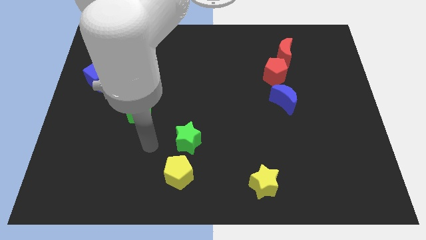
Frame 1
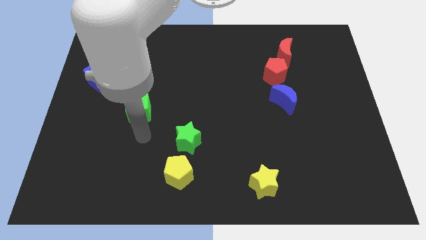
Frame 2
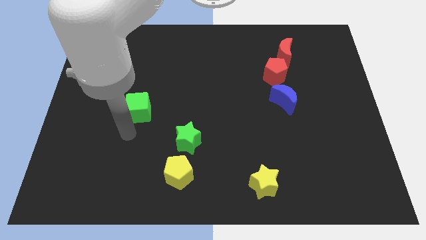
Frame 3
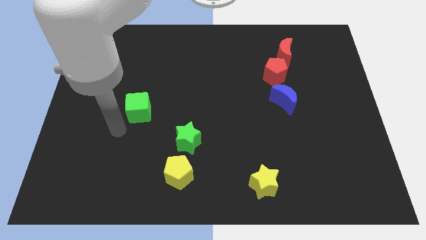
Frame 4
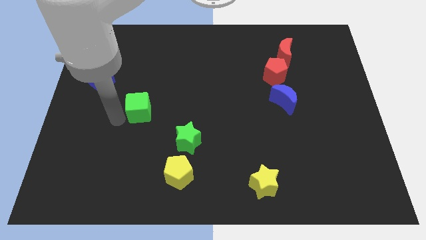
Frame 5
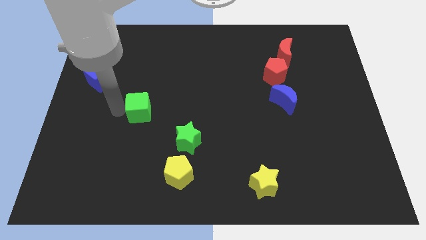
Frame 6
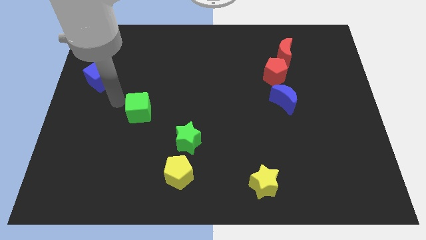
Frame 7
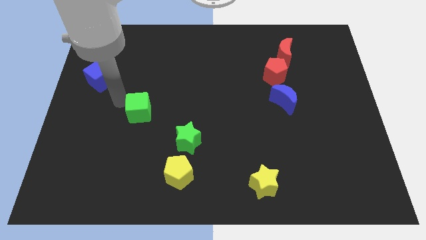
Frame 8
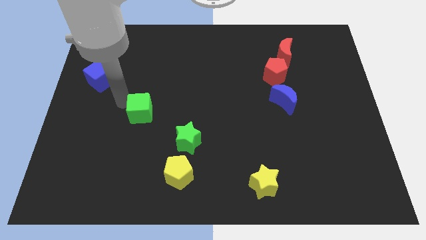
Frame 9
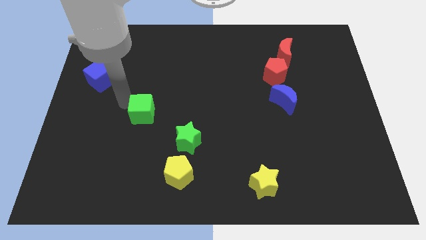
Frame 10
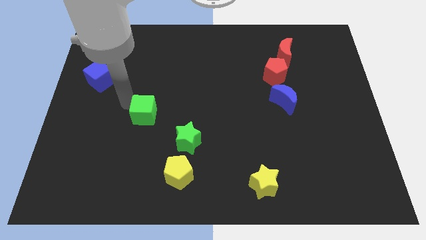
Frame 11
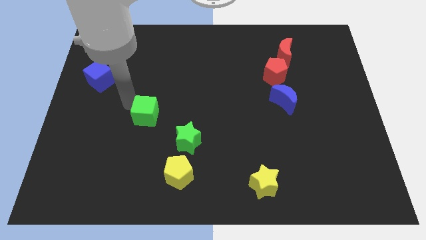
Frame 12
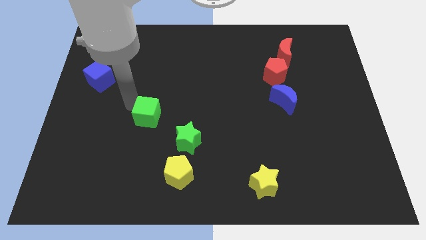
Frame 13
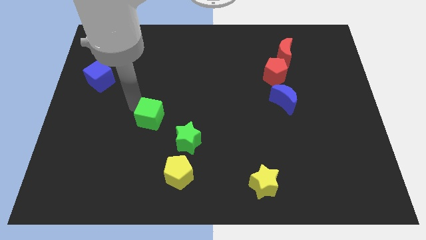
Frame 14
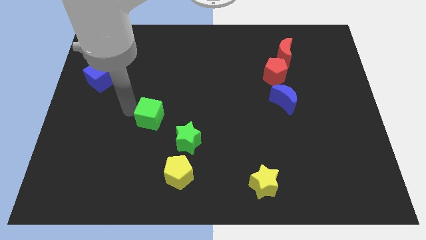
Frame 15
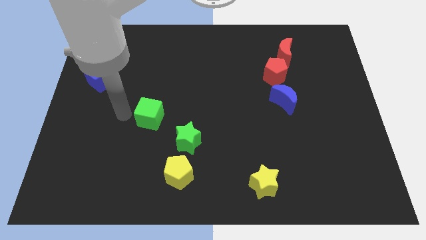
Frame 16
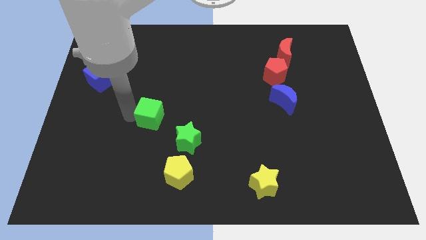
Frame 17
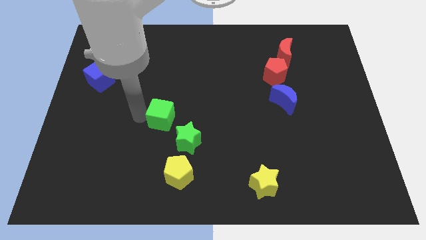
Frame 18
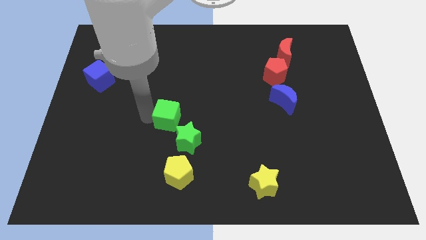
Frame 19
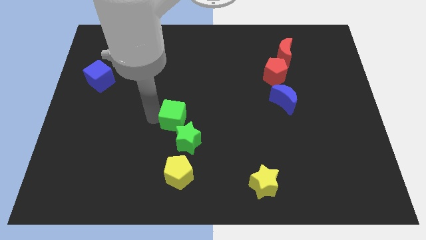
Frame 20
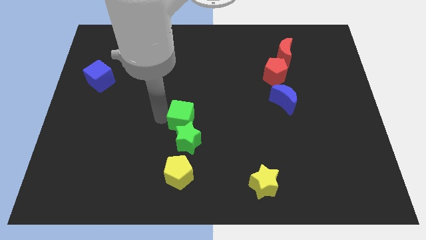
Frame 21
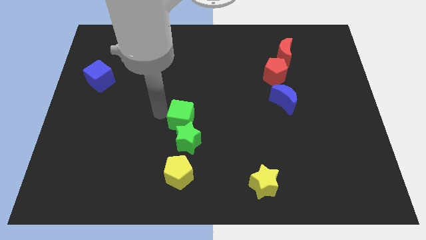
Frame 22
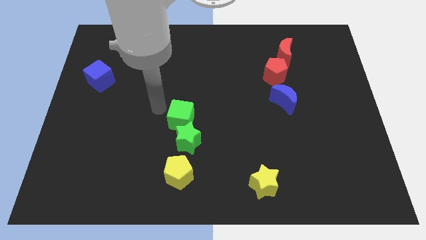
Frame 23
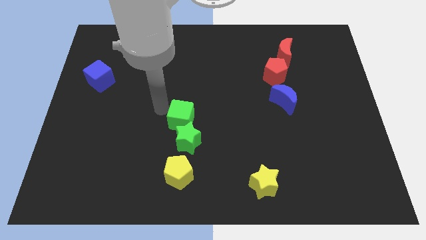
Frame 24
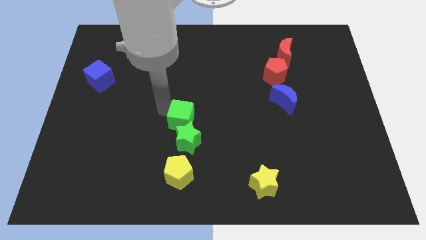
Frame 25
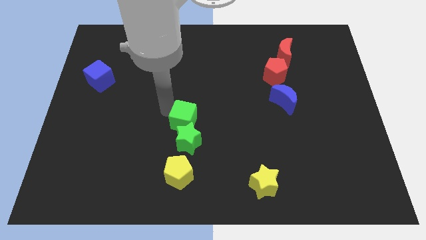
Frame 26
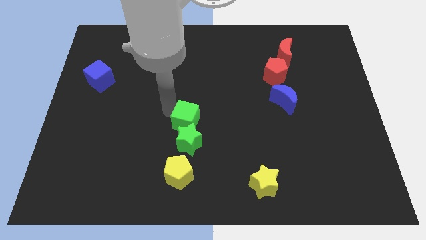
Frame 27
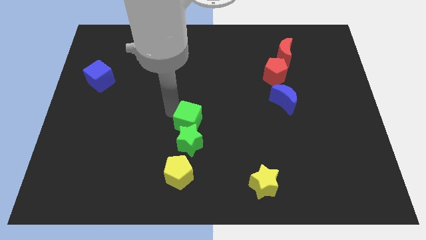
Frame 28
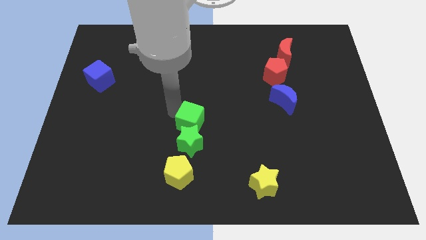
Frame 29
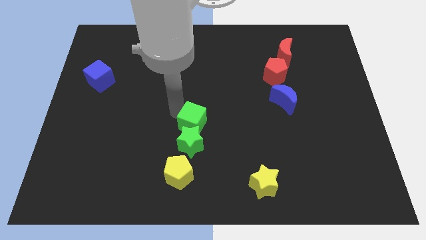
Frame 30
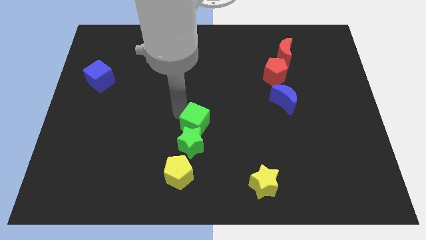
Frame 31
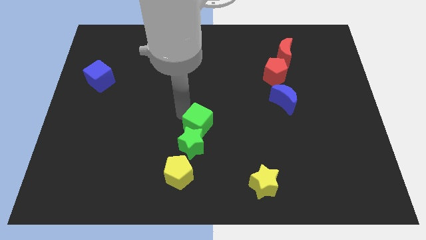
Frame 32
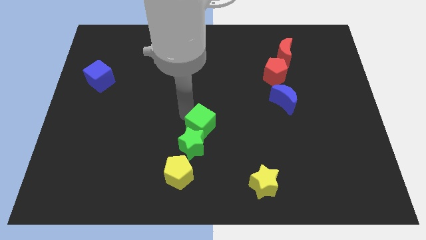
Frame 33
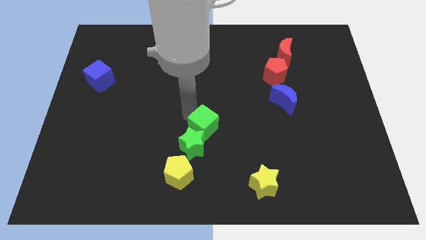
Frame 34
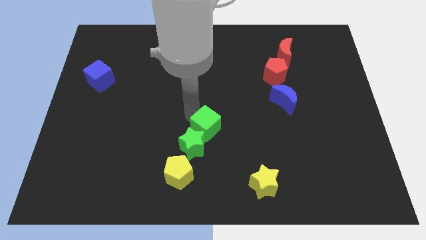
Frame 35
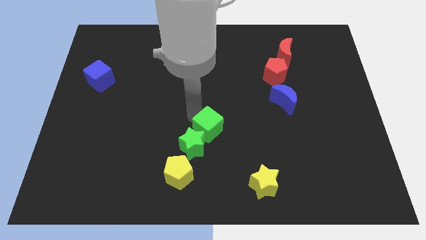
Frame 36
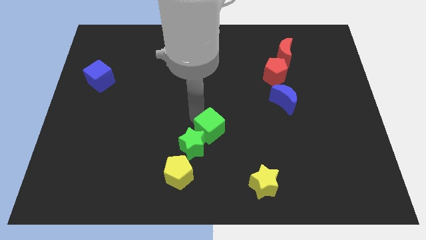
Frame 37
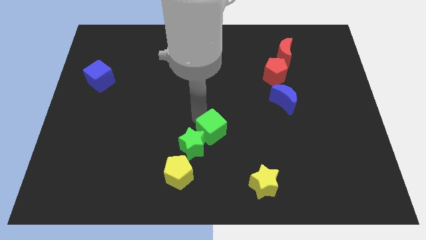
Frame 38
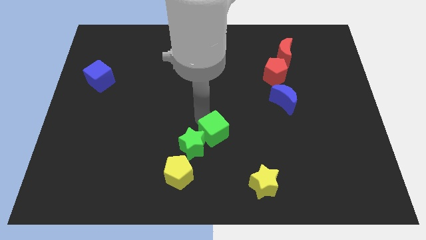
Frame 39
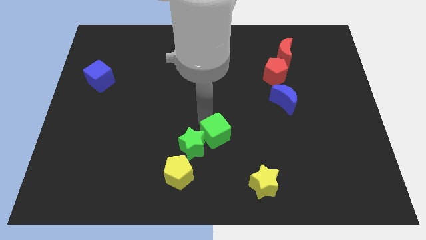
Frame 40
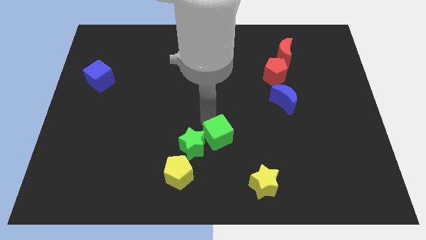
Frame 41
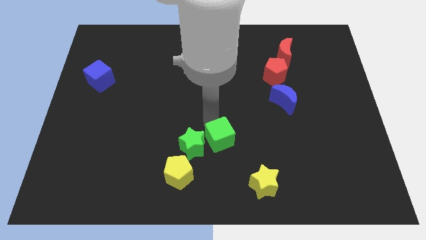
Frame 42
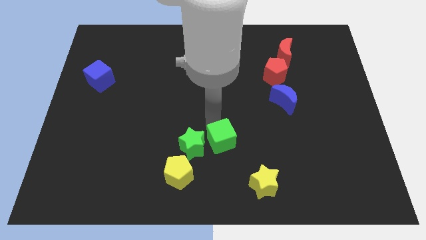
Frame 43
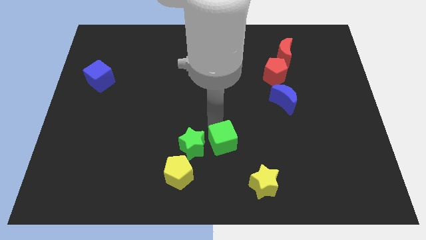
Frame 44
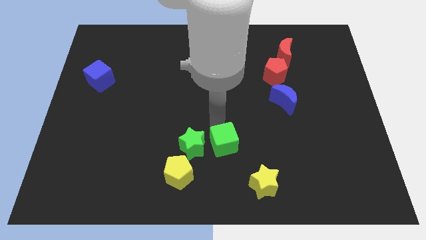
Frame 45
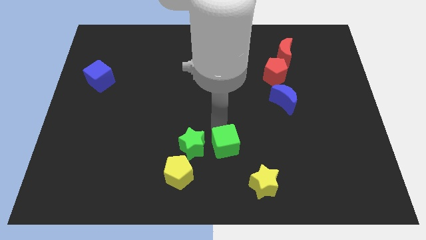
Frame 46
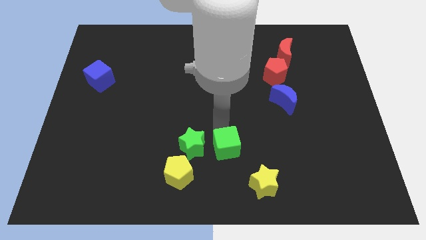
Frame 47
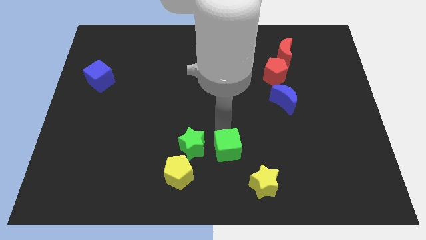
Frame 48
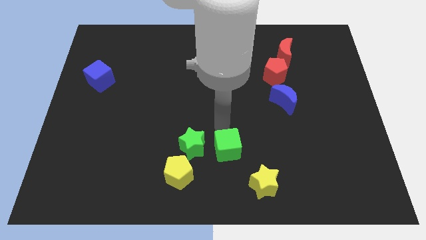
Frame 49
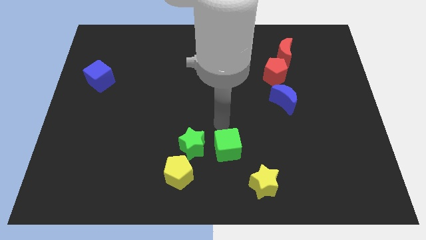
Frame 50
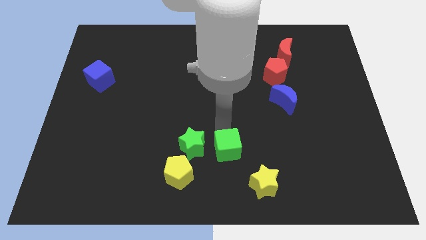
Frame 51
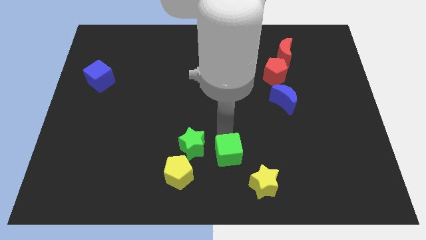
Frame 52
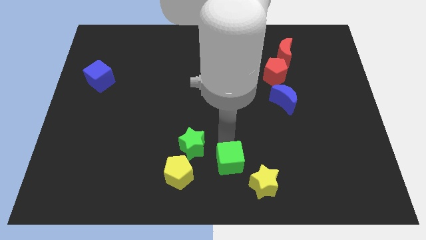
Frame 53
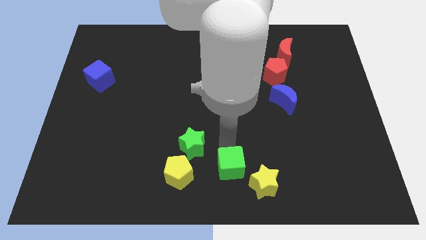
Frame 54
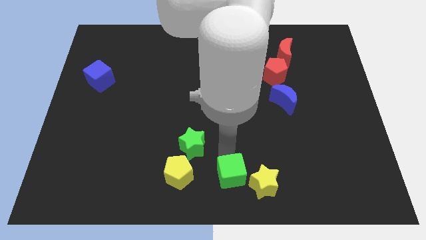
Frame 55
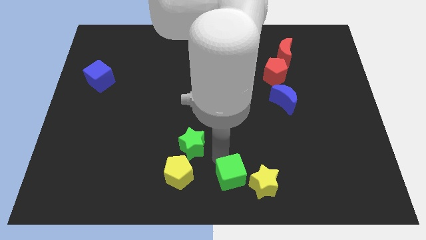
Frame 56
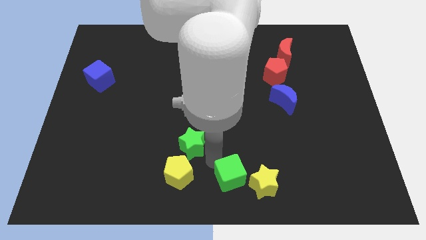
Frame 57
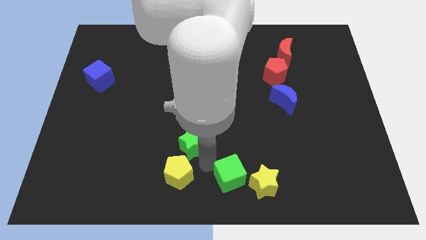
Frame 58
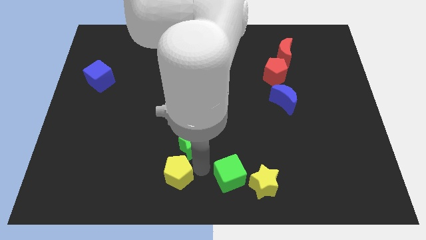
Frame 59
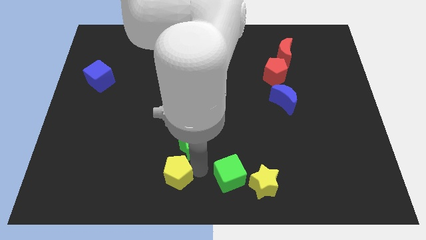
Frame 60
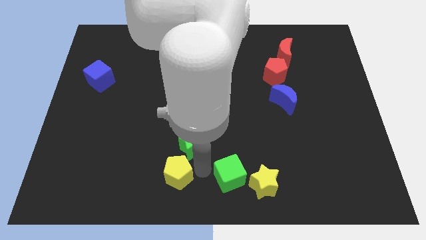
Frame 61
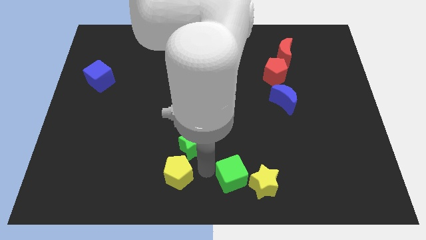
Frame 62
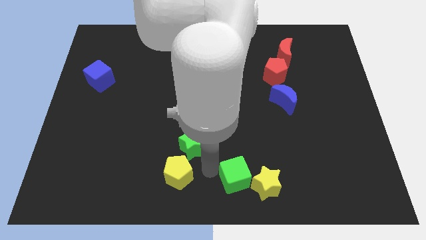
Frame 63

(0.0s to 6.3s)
slide the green cube to the yellow star

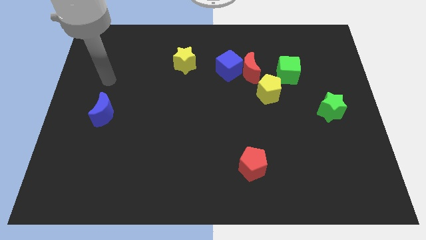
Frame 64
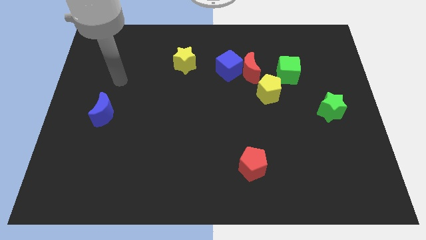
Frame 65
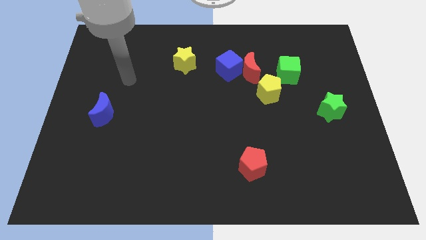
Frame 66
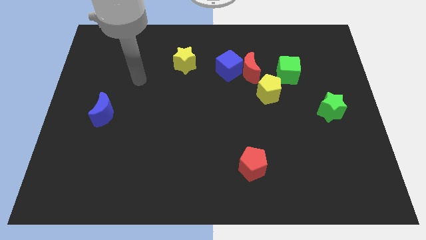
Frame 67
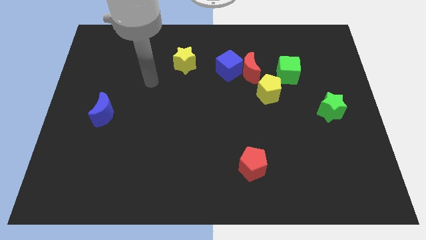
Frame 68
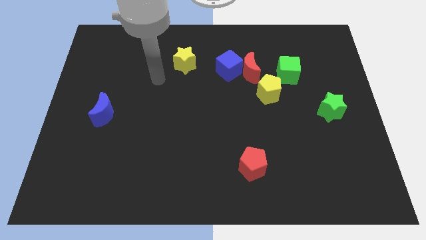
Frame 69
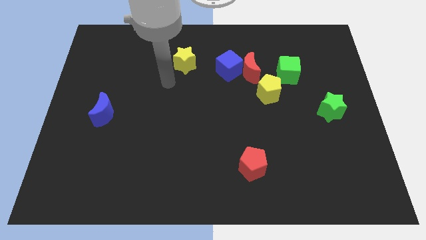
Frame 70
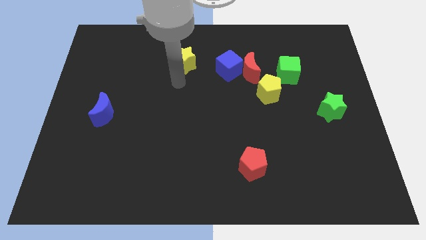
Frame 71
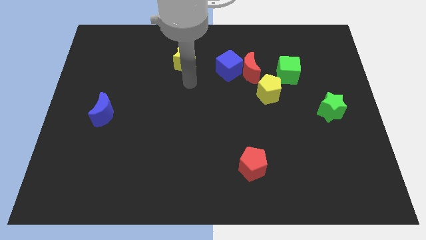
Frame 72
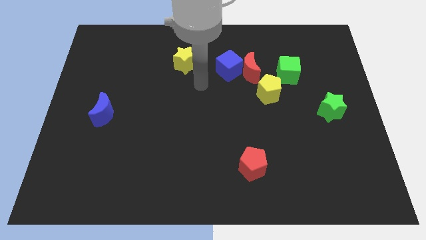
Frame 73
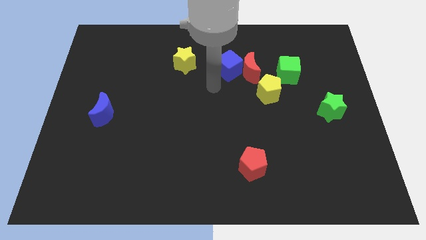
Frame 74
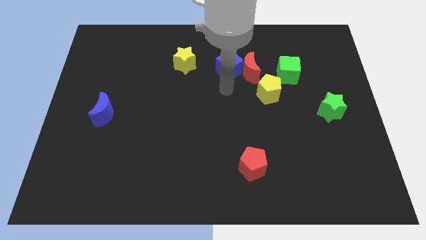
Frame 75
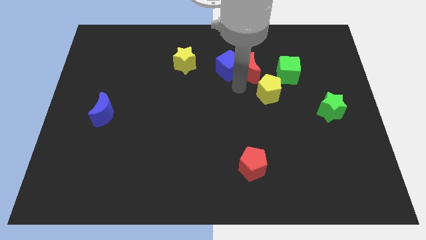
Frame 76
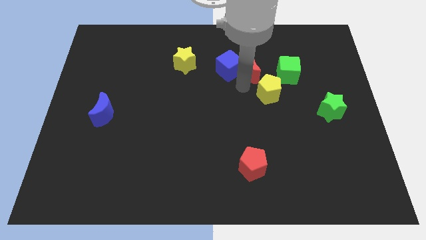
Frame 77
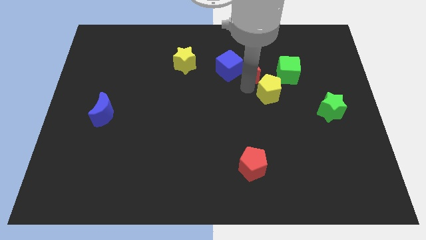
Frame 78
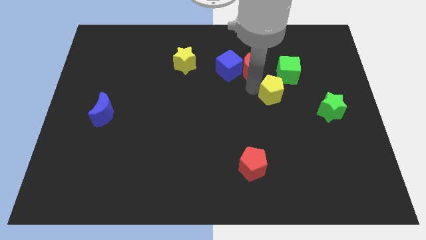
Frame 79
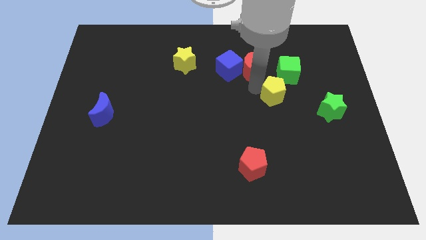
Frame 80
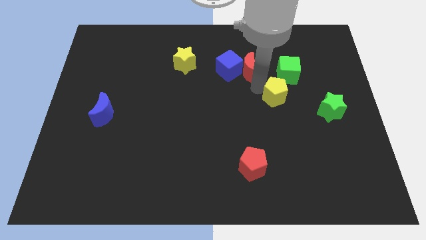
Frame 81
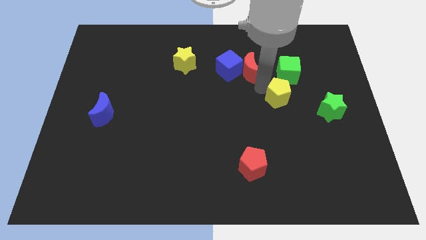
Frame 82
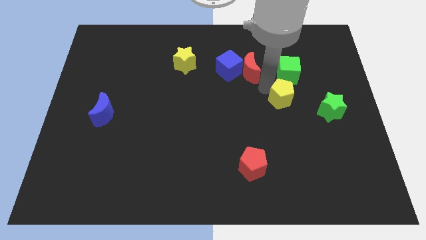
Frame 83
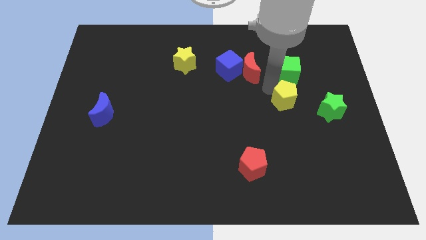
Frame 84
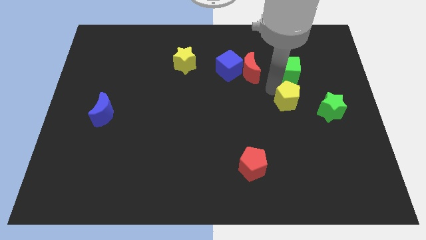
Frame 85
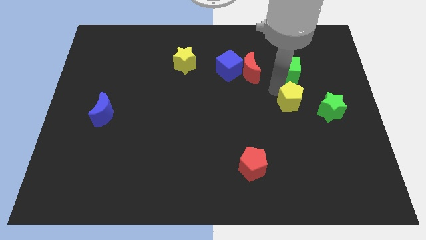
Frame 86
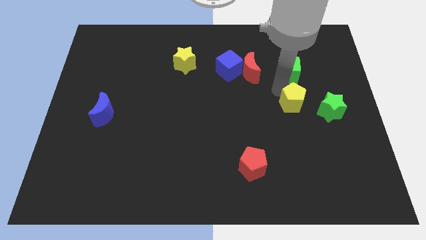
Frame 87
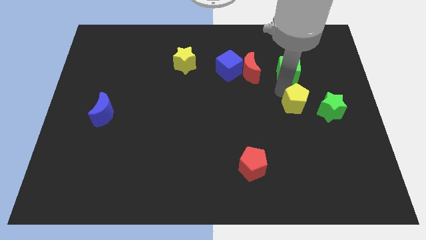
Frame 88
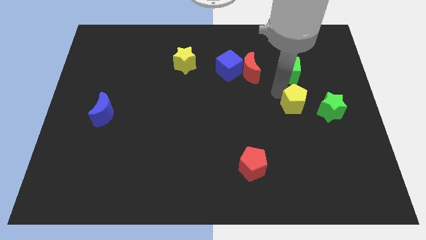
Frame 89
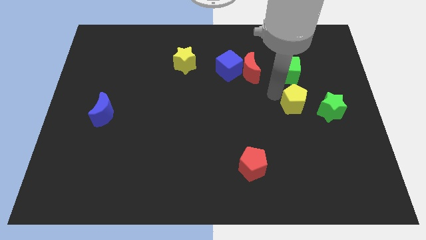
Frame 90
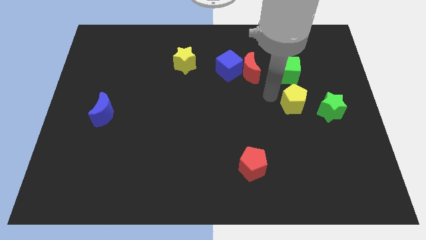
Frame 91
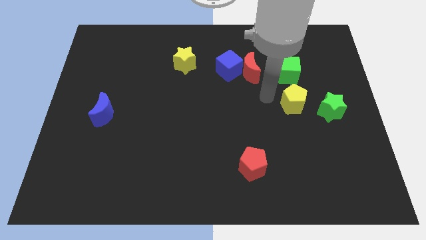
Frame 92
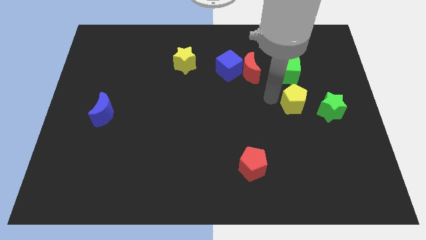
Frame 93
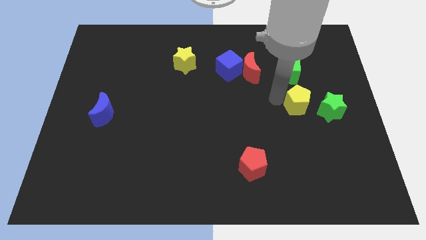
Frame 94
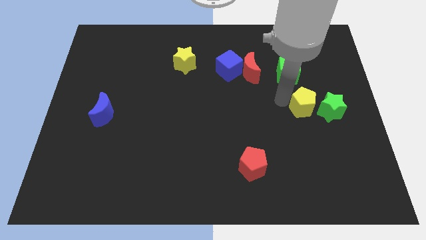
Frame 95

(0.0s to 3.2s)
push the yellow pentagon next to the green star
